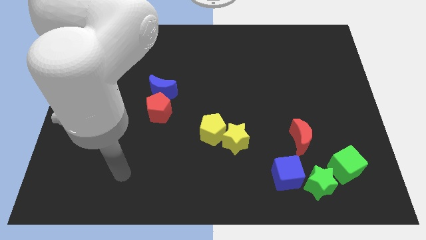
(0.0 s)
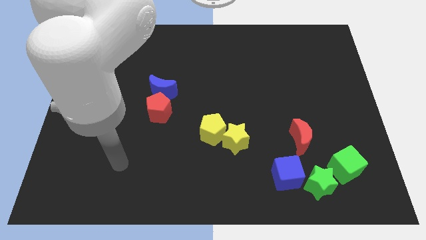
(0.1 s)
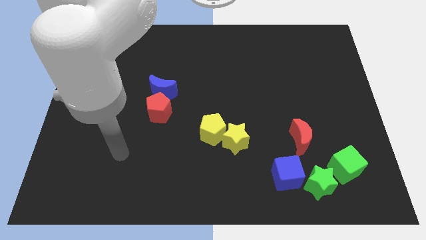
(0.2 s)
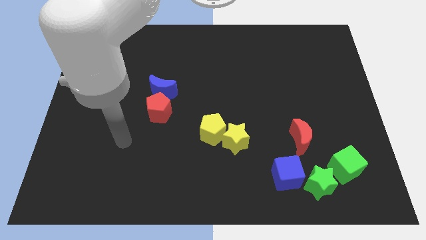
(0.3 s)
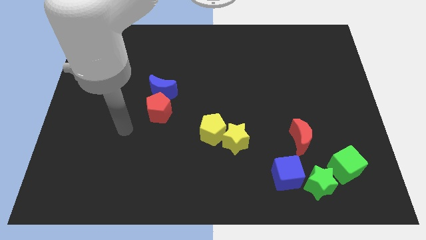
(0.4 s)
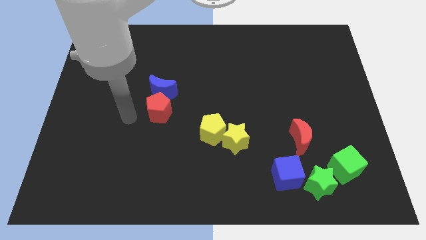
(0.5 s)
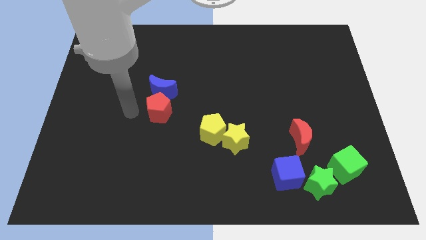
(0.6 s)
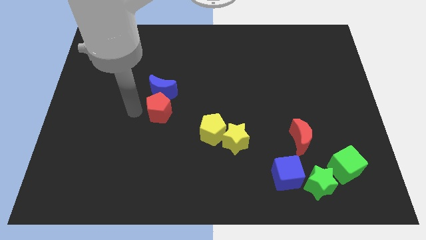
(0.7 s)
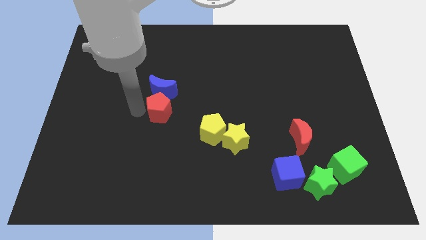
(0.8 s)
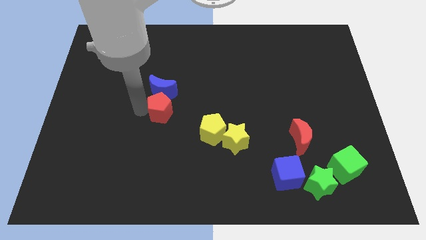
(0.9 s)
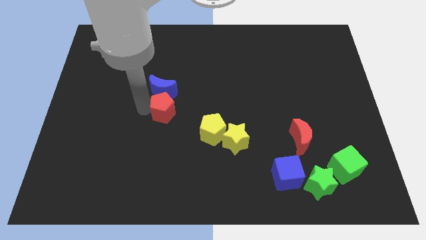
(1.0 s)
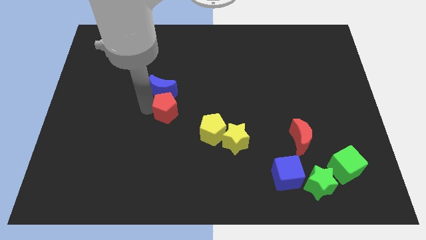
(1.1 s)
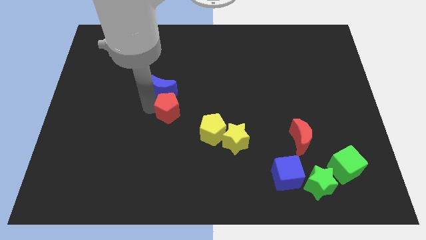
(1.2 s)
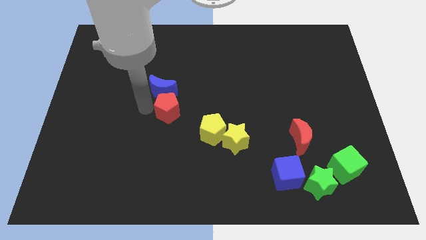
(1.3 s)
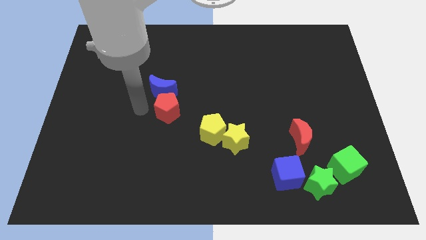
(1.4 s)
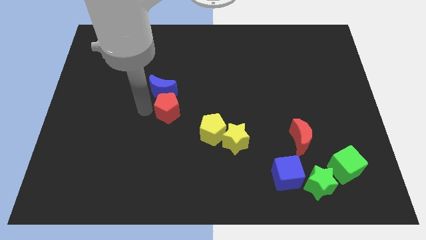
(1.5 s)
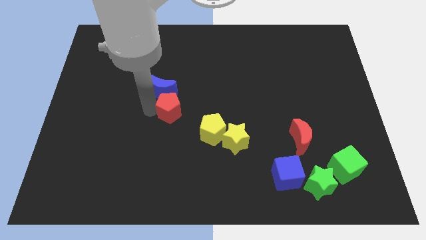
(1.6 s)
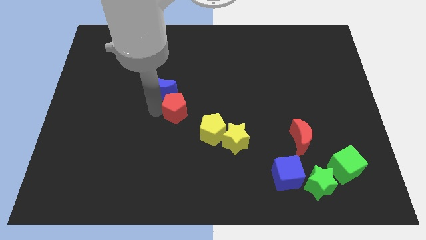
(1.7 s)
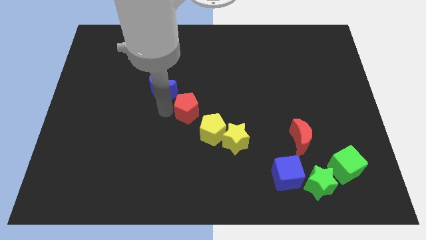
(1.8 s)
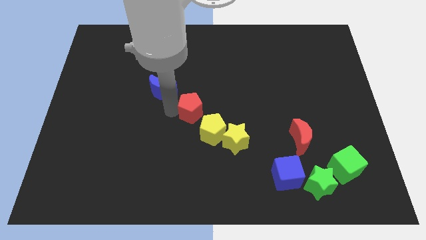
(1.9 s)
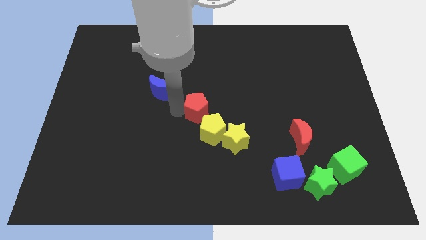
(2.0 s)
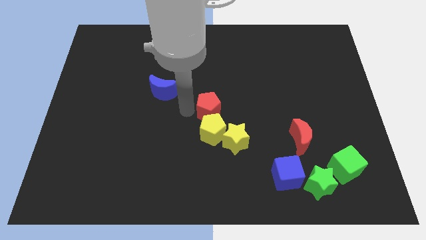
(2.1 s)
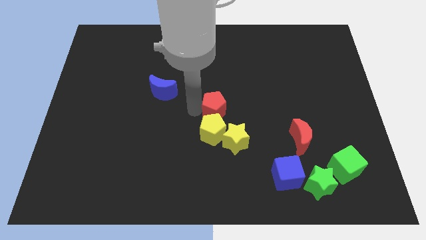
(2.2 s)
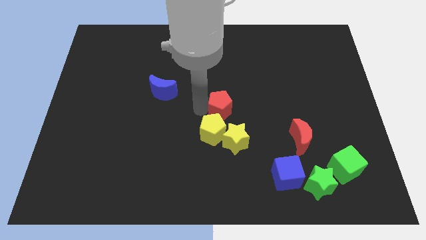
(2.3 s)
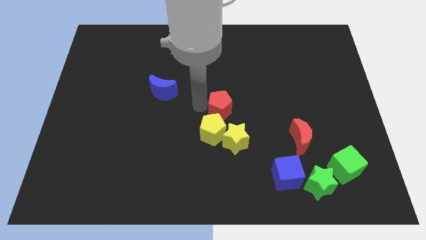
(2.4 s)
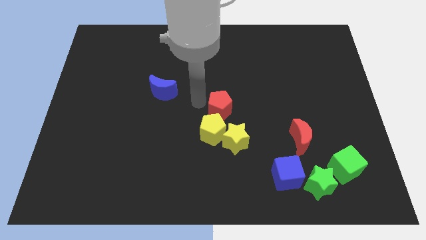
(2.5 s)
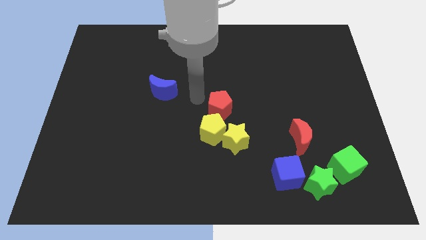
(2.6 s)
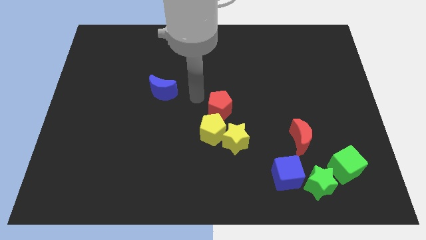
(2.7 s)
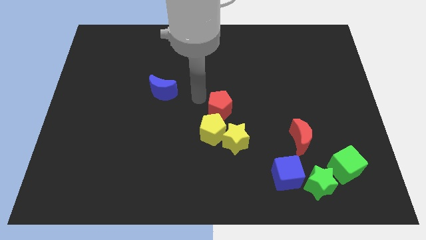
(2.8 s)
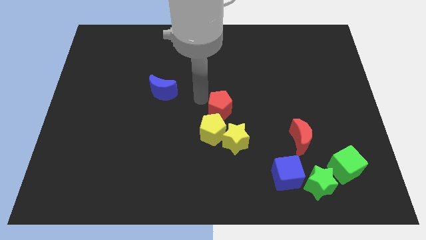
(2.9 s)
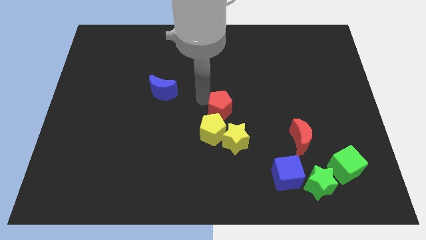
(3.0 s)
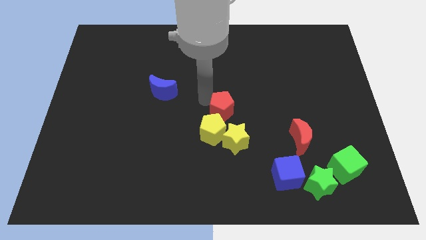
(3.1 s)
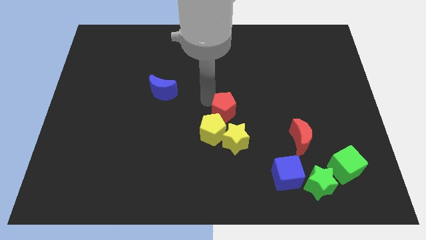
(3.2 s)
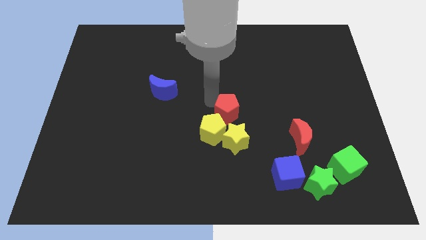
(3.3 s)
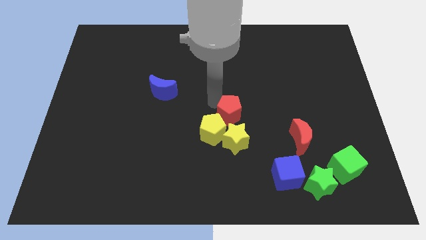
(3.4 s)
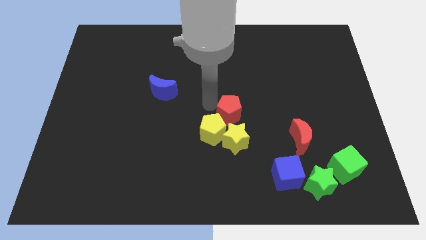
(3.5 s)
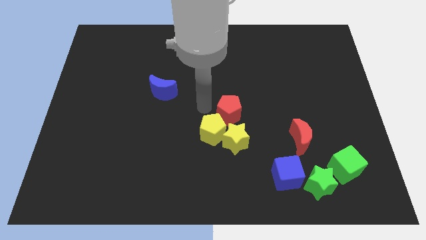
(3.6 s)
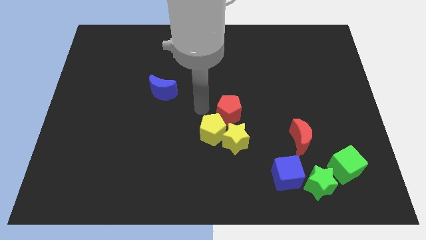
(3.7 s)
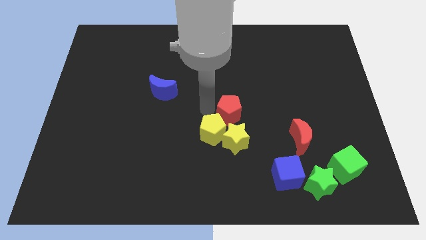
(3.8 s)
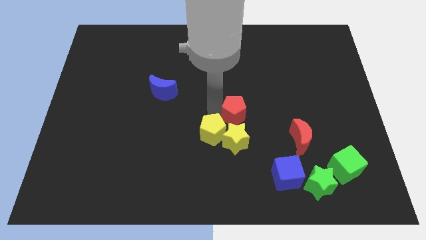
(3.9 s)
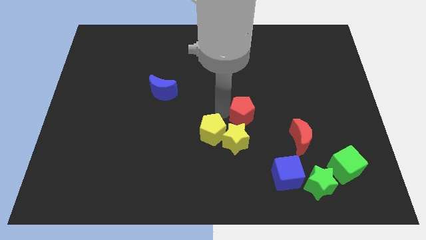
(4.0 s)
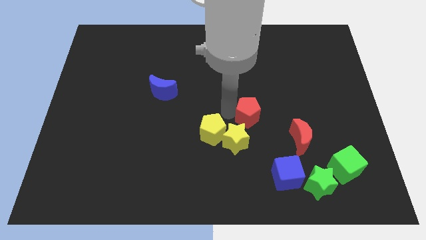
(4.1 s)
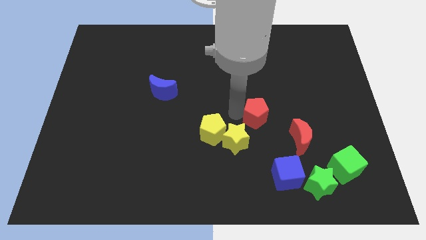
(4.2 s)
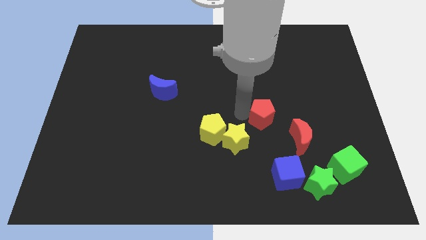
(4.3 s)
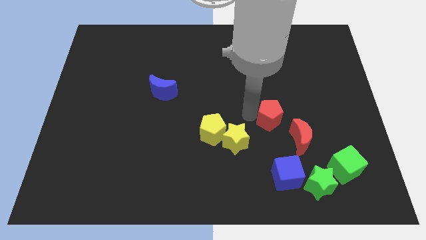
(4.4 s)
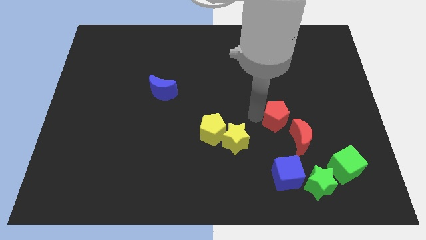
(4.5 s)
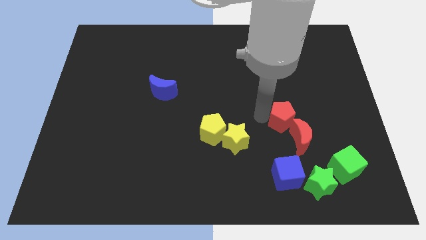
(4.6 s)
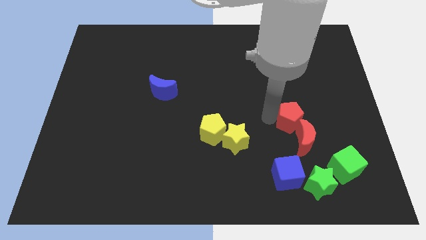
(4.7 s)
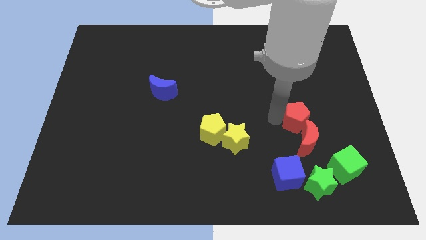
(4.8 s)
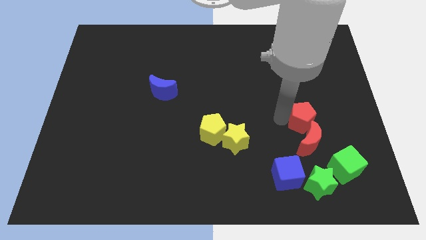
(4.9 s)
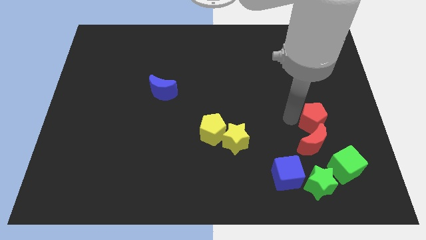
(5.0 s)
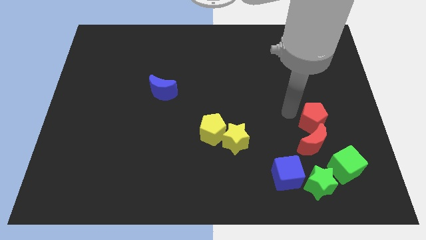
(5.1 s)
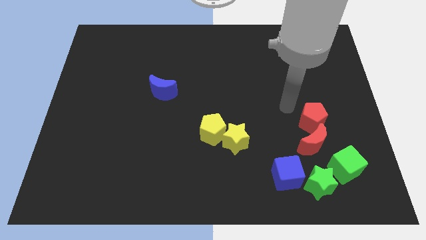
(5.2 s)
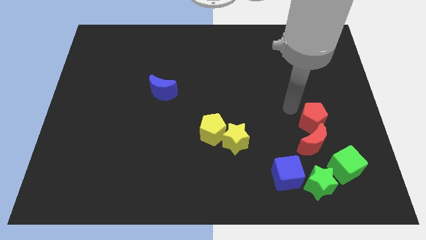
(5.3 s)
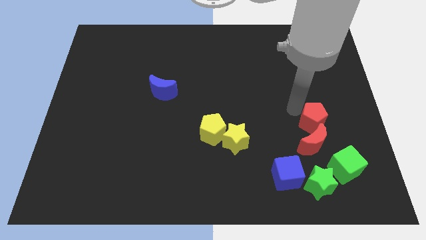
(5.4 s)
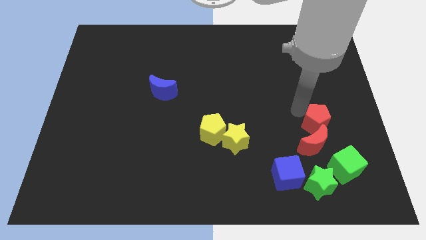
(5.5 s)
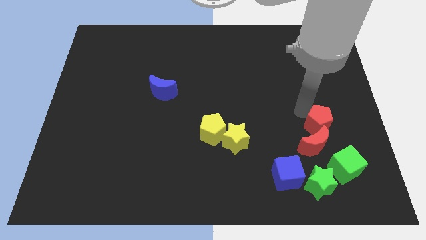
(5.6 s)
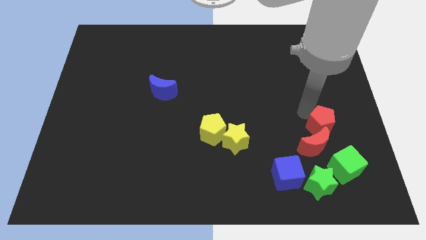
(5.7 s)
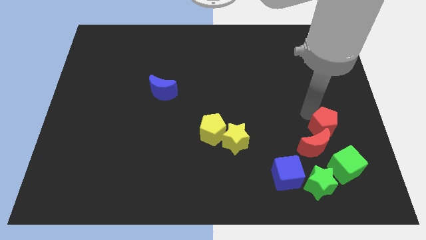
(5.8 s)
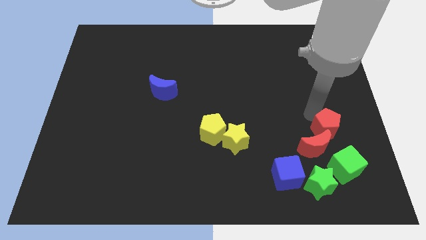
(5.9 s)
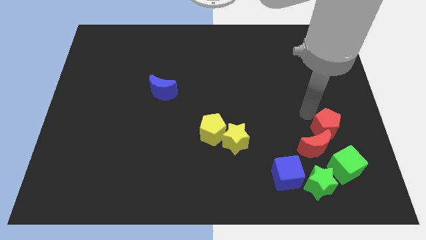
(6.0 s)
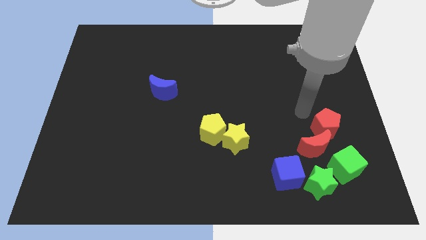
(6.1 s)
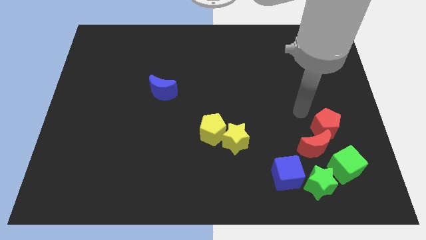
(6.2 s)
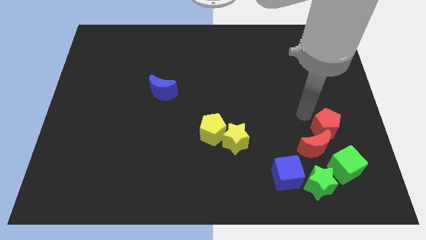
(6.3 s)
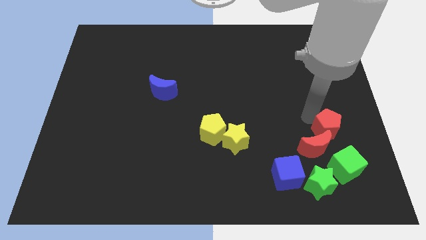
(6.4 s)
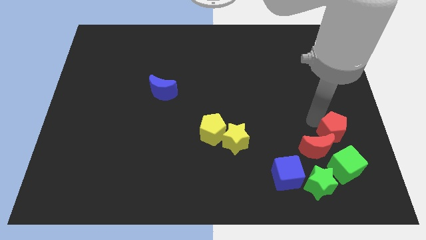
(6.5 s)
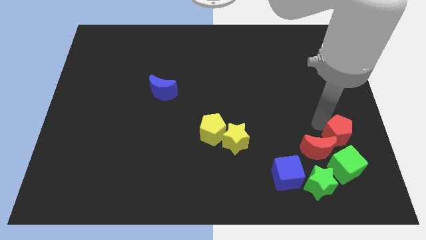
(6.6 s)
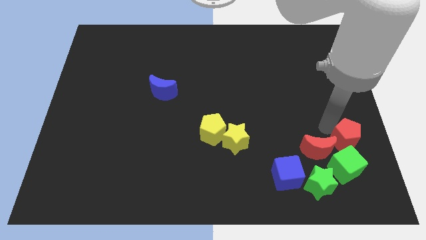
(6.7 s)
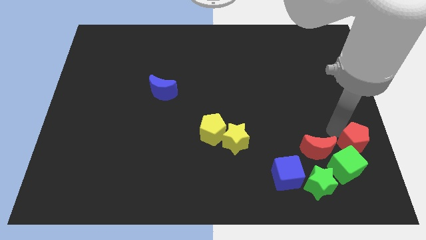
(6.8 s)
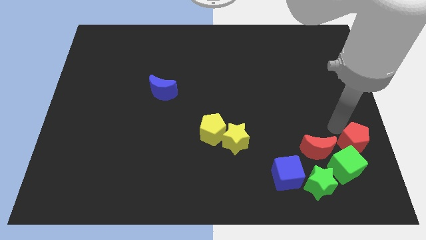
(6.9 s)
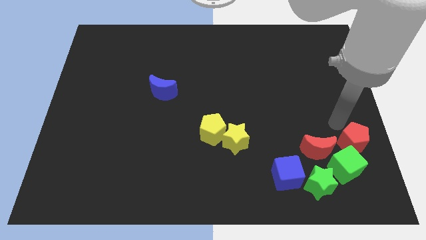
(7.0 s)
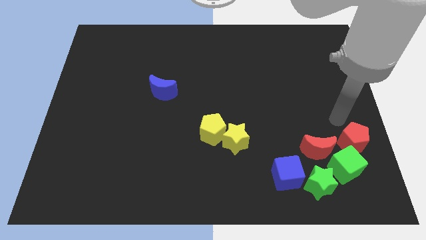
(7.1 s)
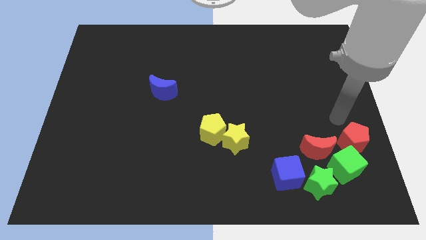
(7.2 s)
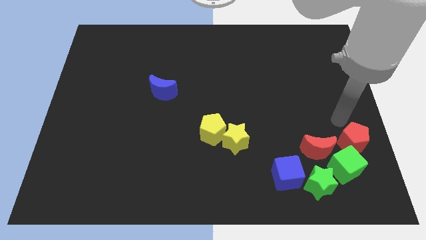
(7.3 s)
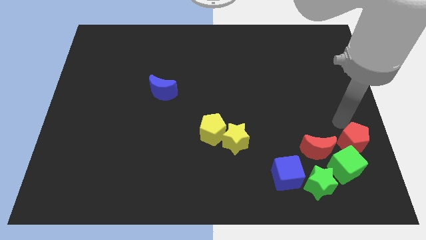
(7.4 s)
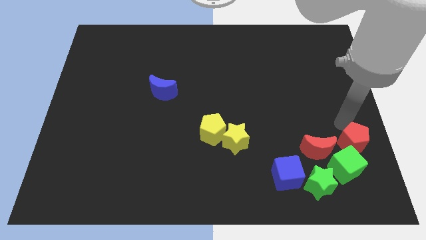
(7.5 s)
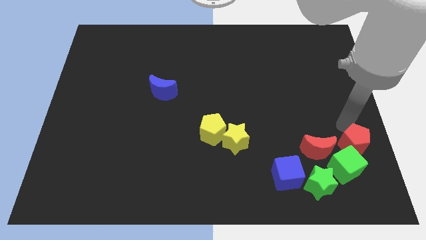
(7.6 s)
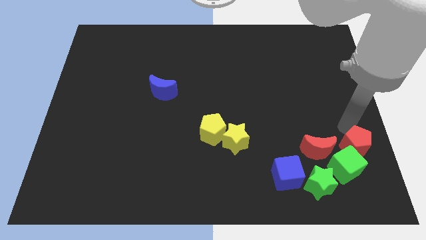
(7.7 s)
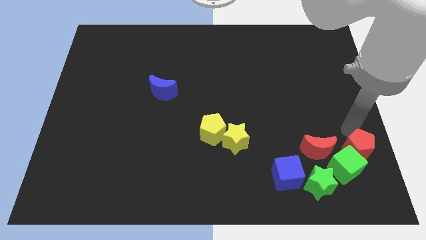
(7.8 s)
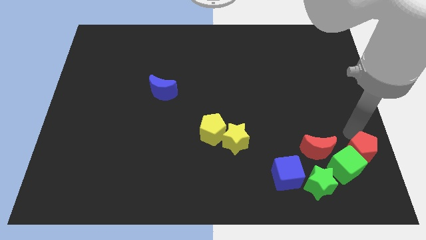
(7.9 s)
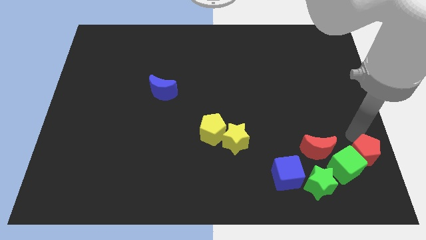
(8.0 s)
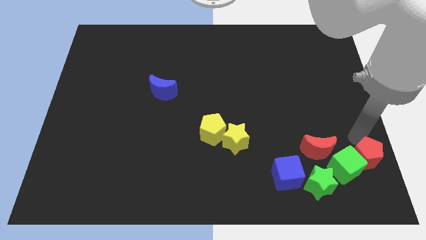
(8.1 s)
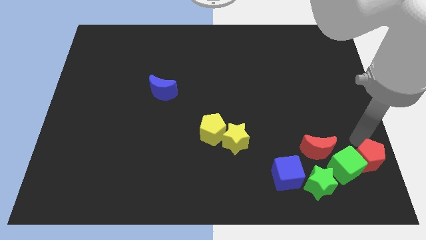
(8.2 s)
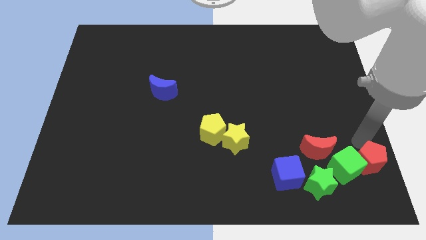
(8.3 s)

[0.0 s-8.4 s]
push the red pentagon to the bottom right corner
